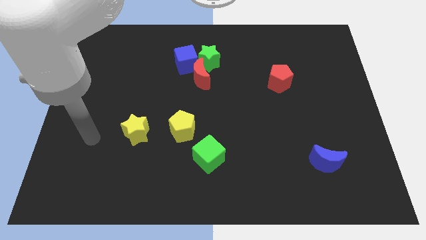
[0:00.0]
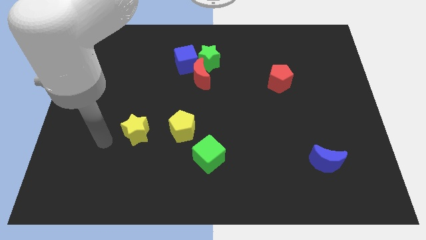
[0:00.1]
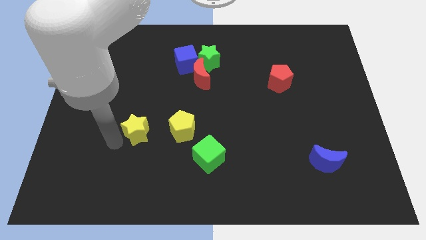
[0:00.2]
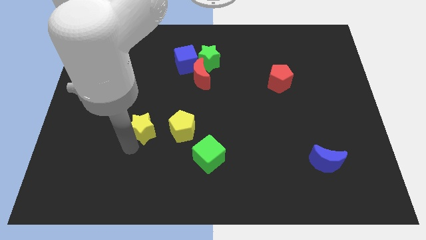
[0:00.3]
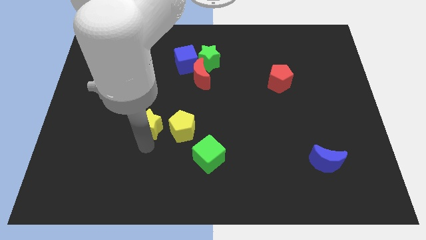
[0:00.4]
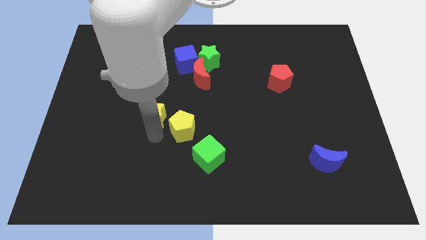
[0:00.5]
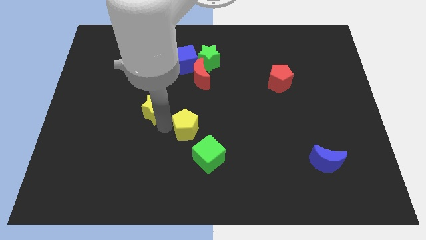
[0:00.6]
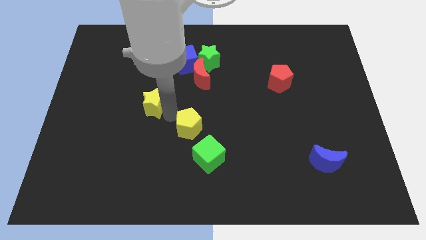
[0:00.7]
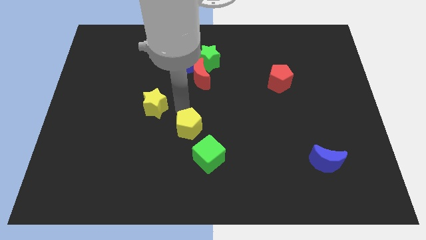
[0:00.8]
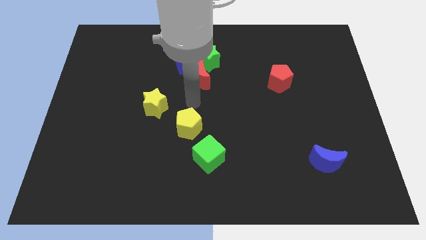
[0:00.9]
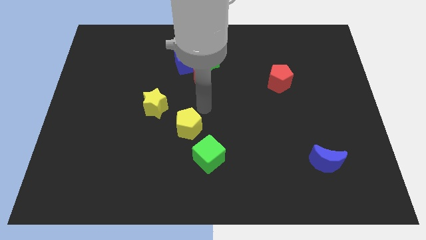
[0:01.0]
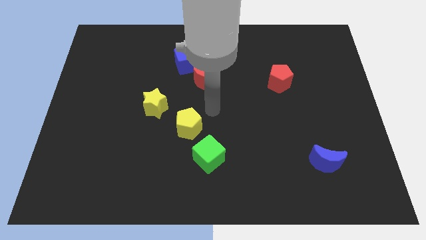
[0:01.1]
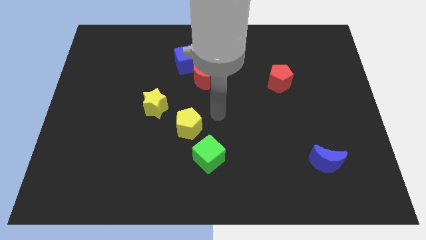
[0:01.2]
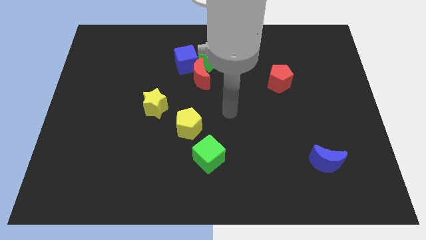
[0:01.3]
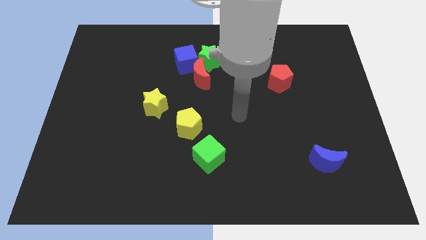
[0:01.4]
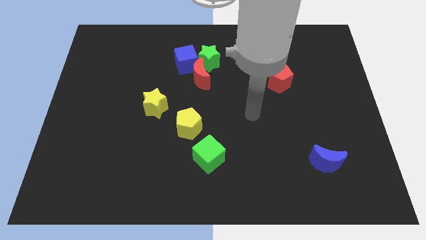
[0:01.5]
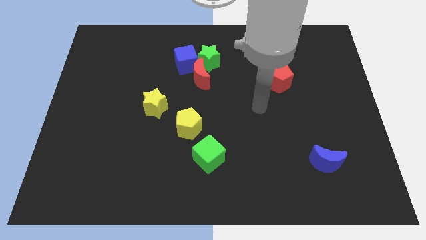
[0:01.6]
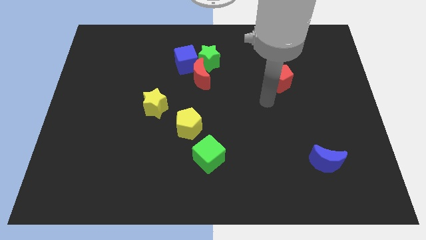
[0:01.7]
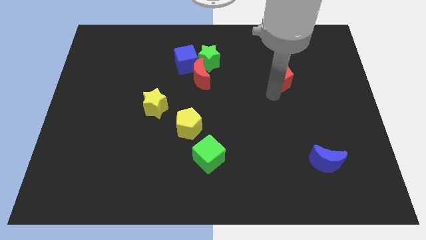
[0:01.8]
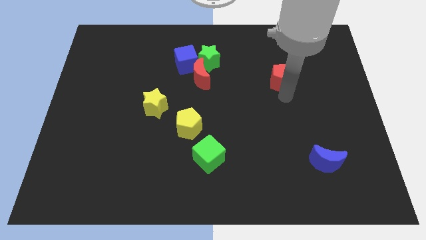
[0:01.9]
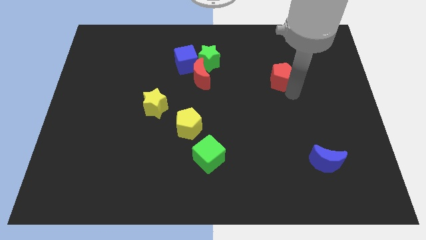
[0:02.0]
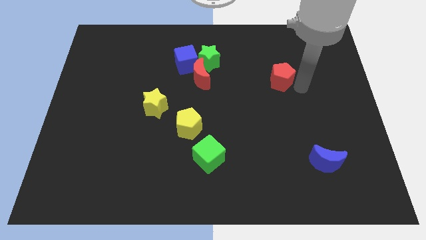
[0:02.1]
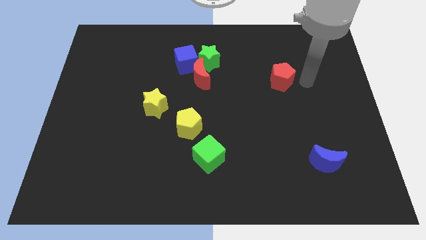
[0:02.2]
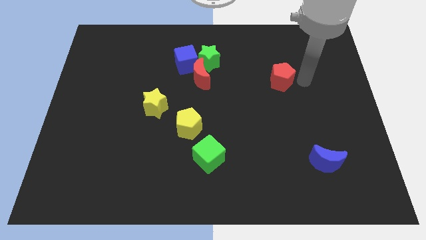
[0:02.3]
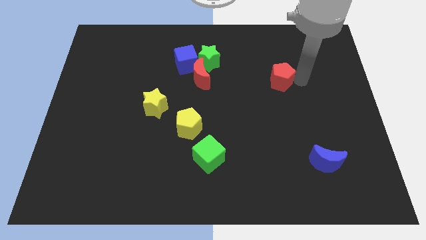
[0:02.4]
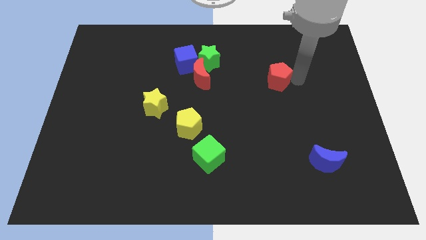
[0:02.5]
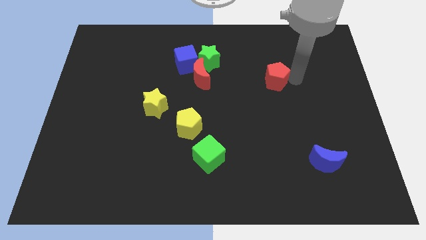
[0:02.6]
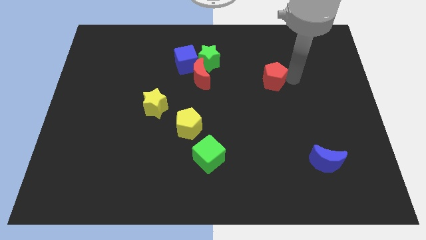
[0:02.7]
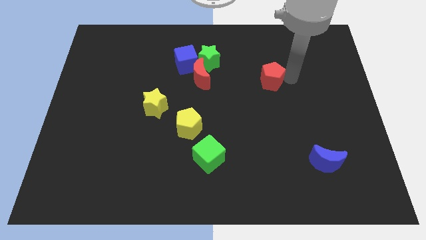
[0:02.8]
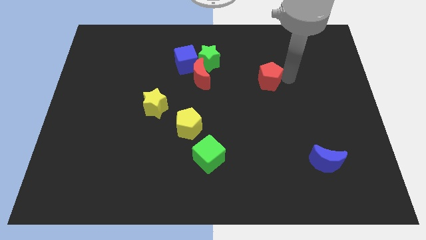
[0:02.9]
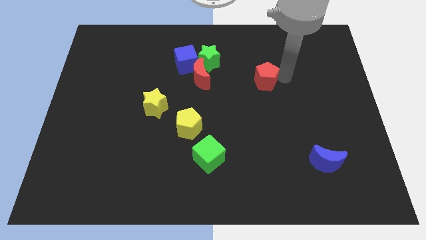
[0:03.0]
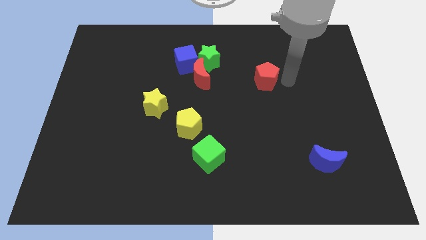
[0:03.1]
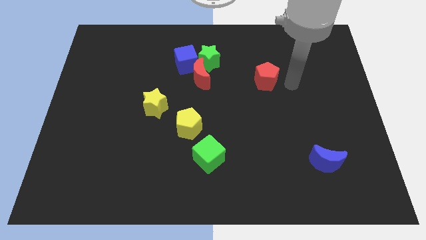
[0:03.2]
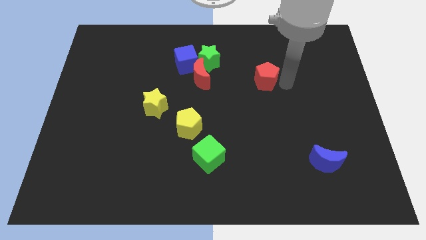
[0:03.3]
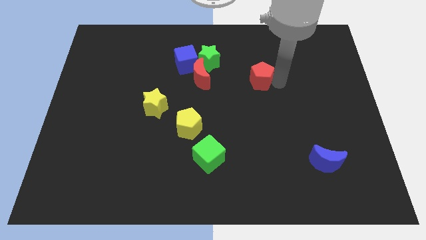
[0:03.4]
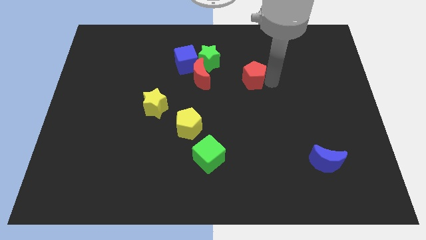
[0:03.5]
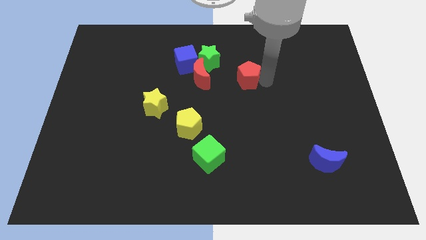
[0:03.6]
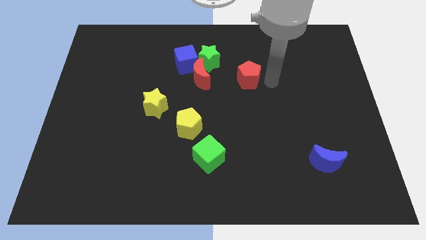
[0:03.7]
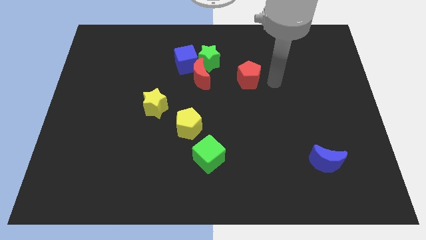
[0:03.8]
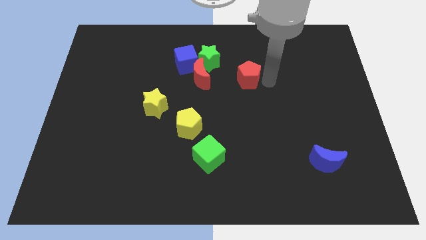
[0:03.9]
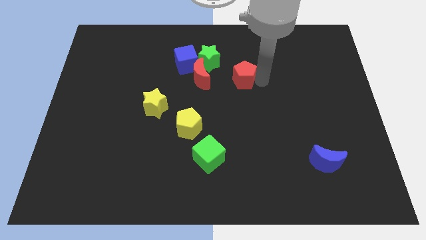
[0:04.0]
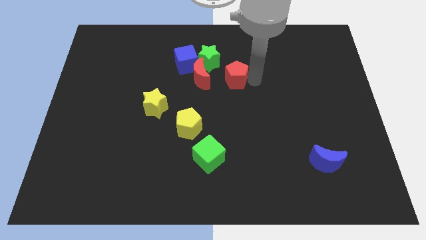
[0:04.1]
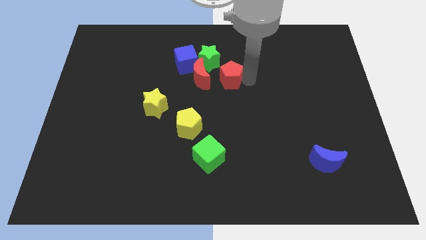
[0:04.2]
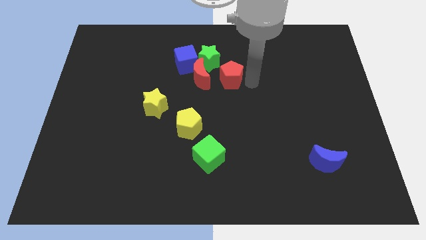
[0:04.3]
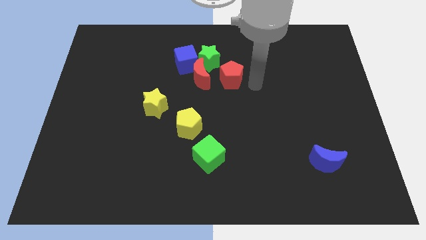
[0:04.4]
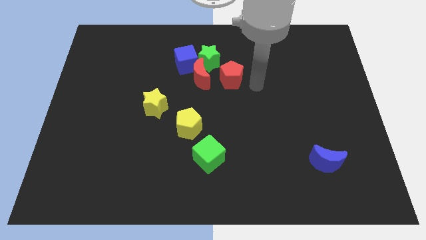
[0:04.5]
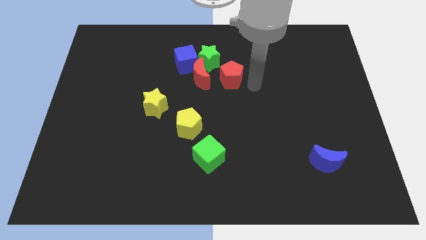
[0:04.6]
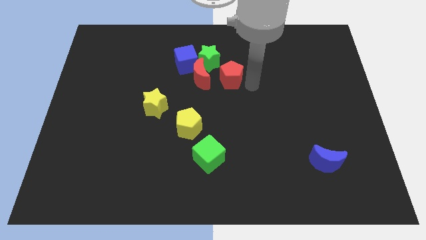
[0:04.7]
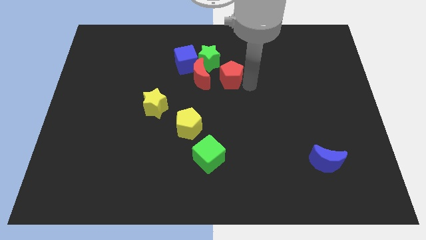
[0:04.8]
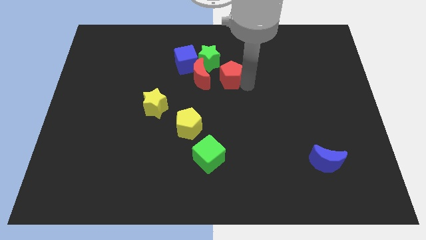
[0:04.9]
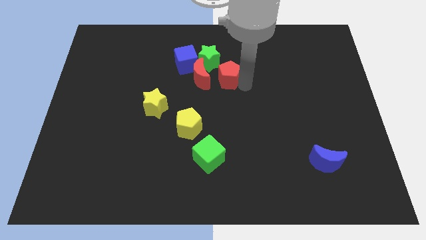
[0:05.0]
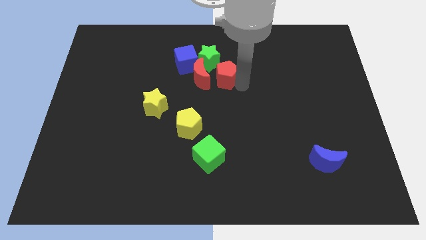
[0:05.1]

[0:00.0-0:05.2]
push the red pentagon below the green star

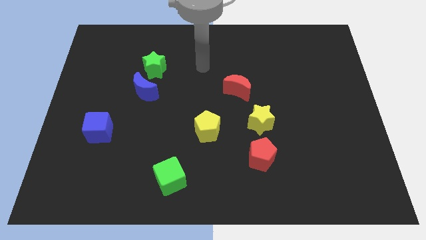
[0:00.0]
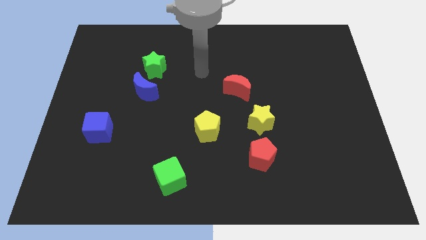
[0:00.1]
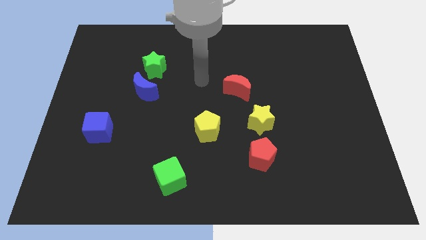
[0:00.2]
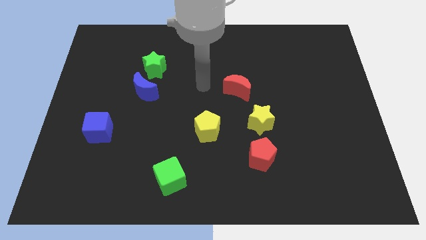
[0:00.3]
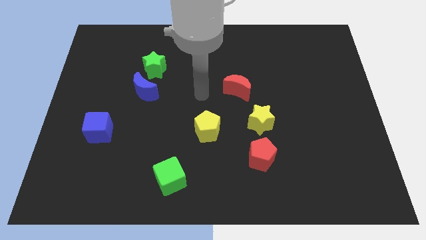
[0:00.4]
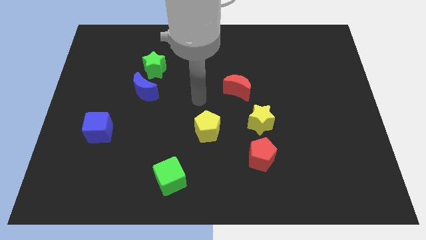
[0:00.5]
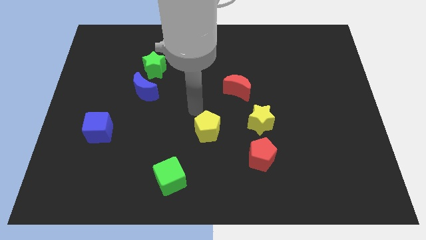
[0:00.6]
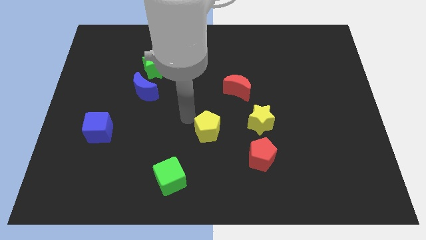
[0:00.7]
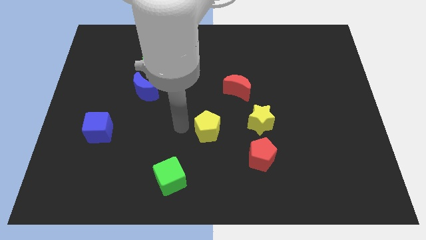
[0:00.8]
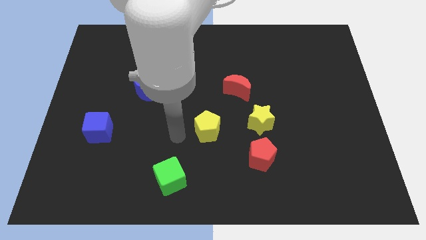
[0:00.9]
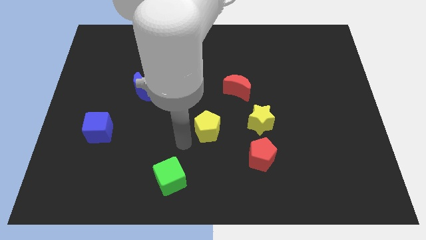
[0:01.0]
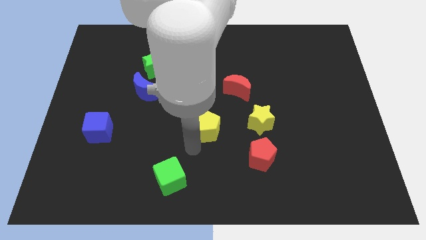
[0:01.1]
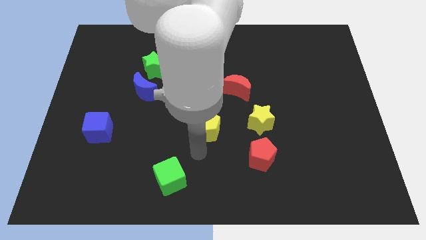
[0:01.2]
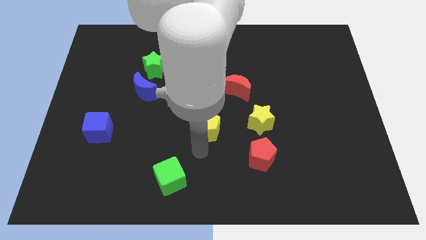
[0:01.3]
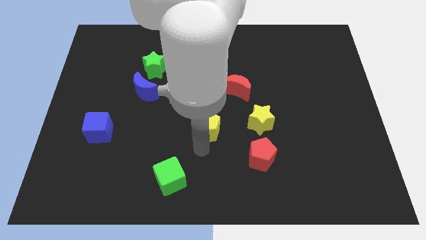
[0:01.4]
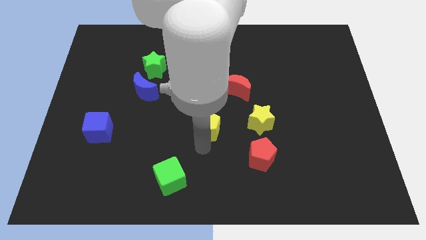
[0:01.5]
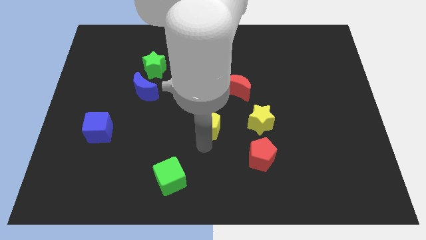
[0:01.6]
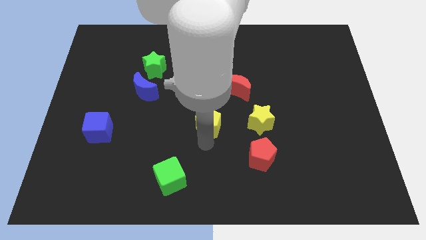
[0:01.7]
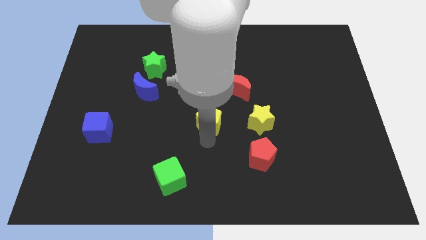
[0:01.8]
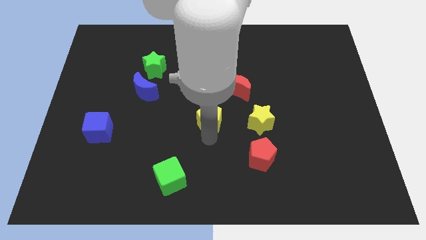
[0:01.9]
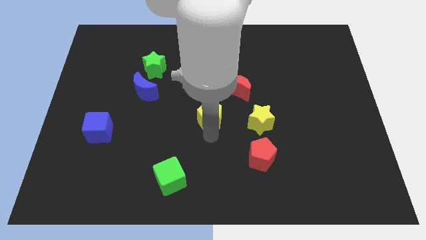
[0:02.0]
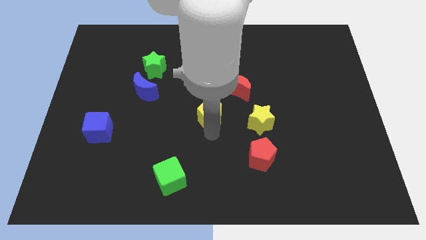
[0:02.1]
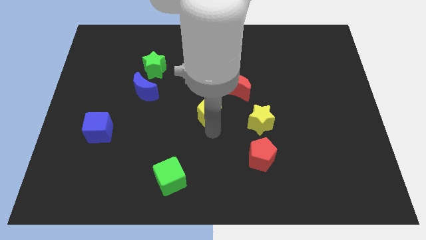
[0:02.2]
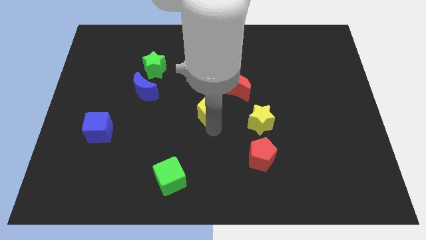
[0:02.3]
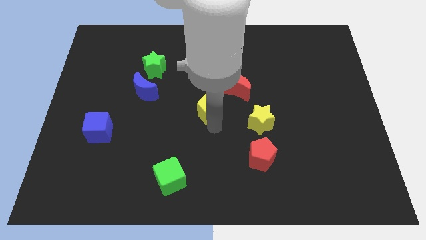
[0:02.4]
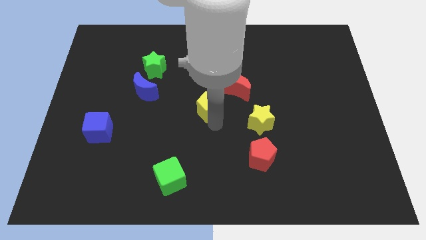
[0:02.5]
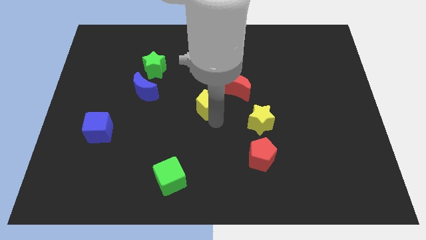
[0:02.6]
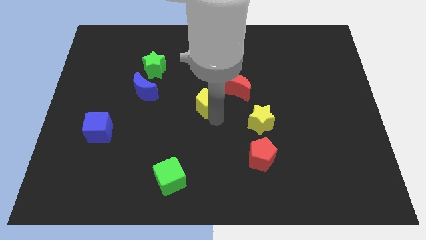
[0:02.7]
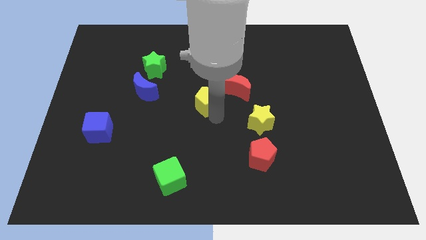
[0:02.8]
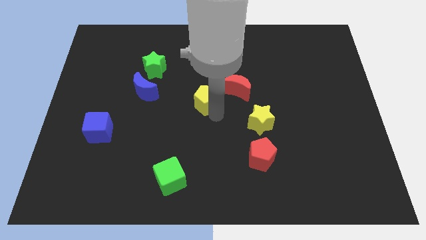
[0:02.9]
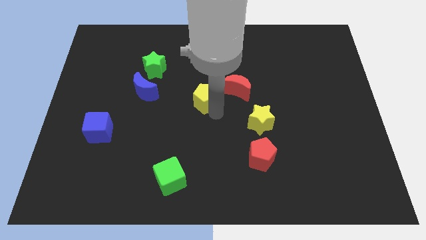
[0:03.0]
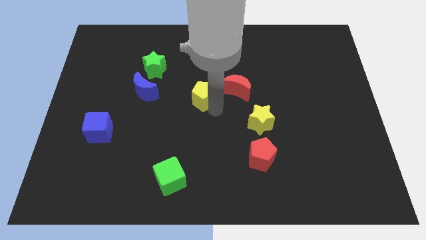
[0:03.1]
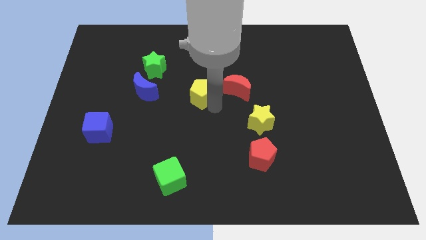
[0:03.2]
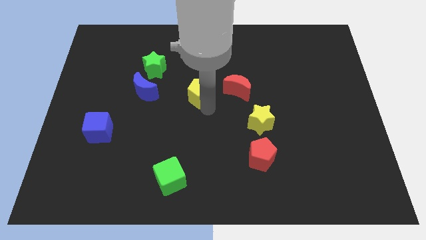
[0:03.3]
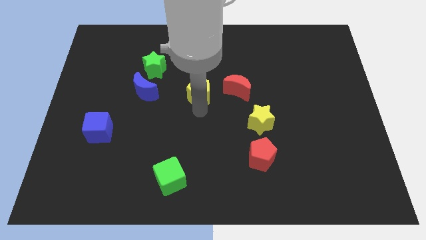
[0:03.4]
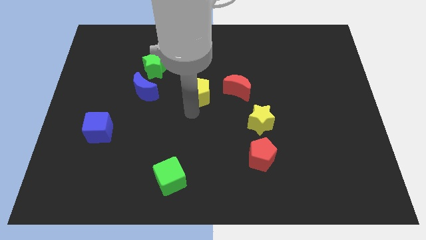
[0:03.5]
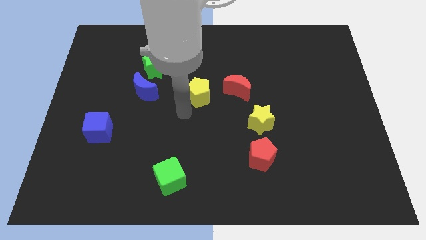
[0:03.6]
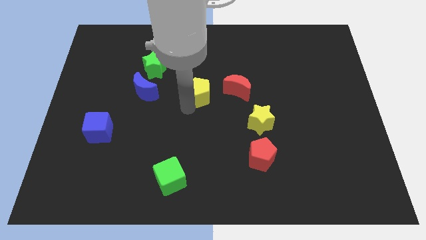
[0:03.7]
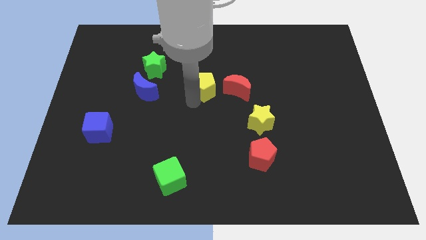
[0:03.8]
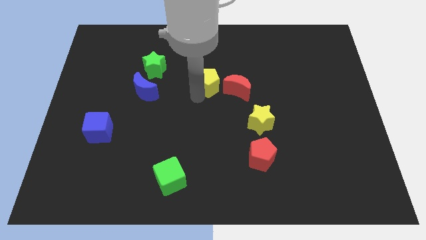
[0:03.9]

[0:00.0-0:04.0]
move the yellow pentagon to the top left side of the red moon
